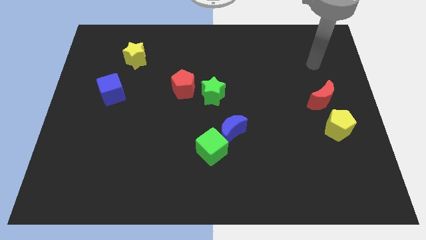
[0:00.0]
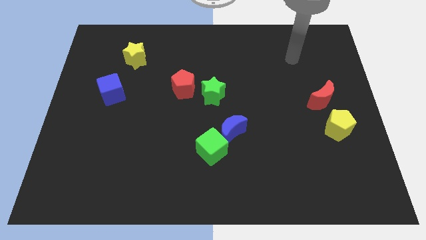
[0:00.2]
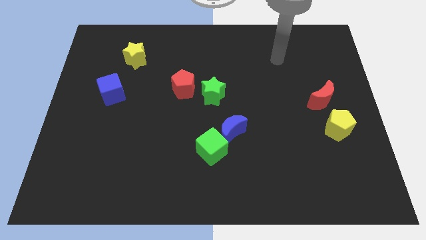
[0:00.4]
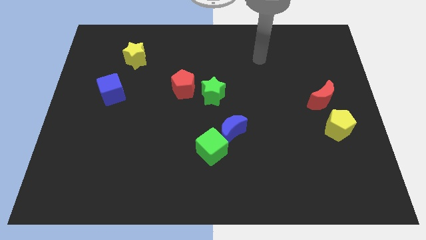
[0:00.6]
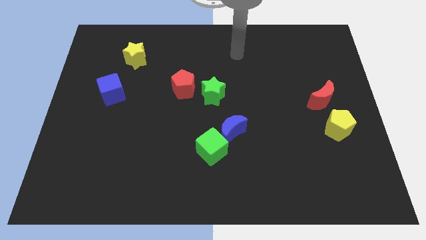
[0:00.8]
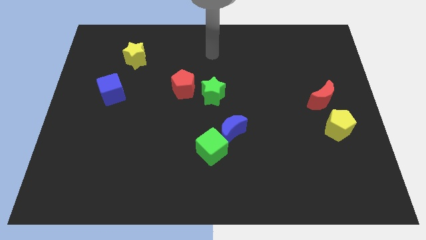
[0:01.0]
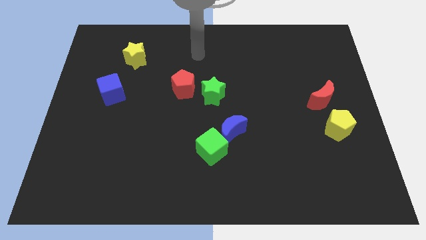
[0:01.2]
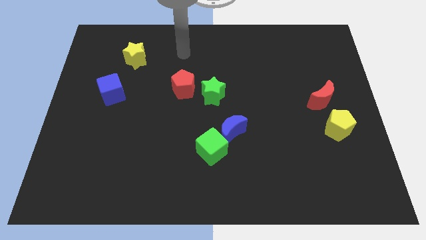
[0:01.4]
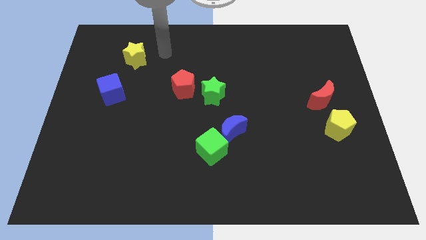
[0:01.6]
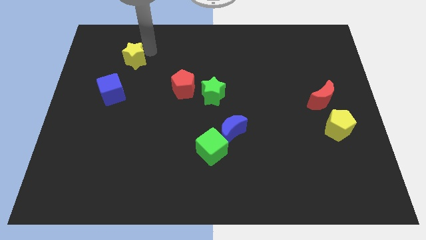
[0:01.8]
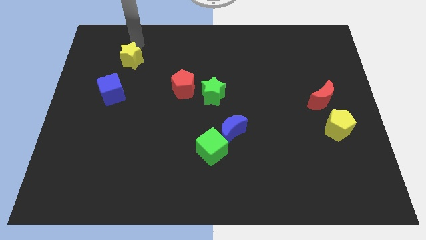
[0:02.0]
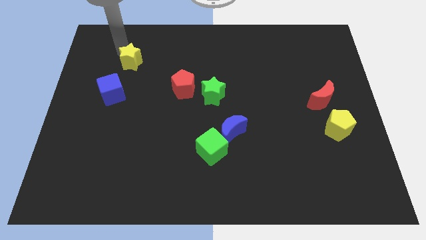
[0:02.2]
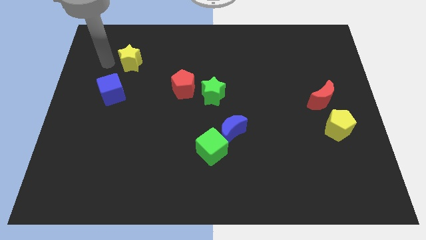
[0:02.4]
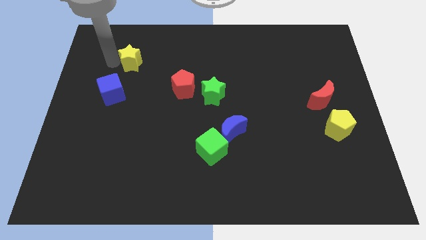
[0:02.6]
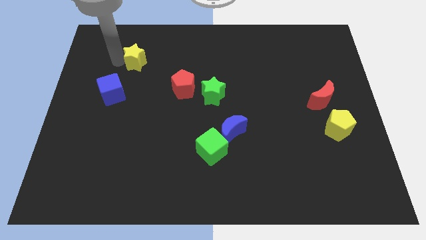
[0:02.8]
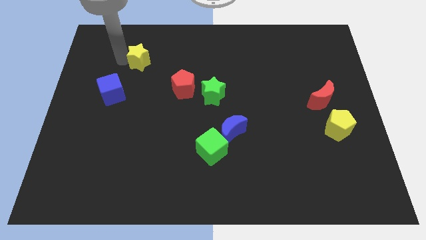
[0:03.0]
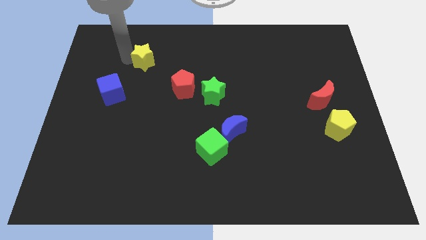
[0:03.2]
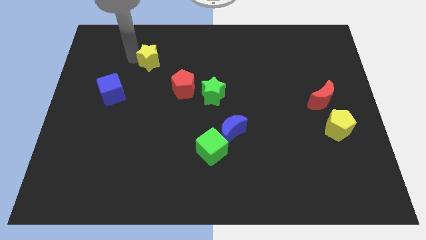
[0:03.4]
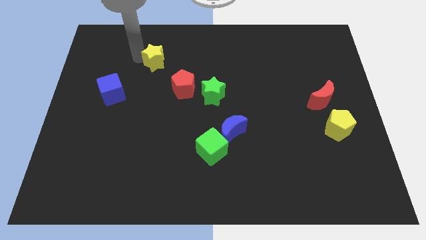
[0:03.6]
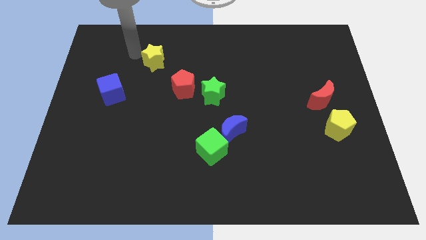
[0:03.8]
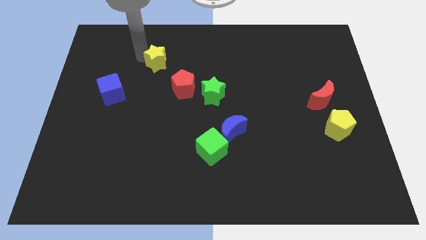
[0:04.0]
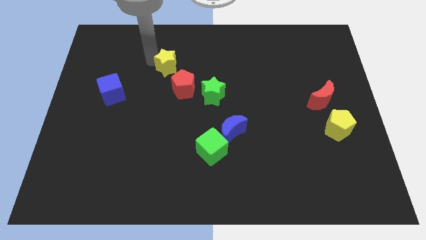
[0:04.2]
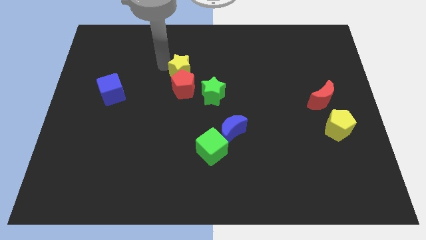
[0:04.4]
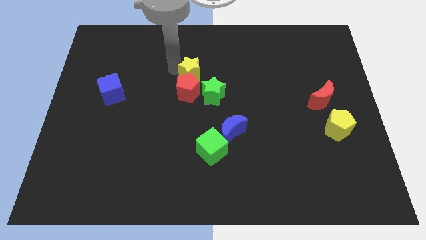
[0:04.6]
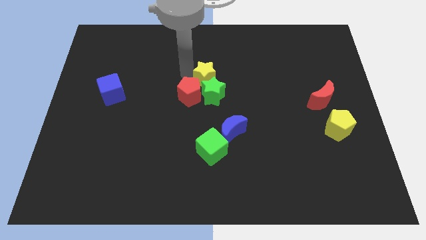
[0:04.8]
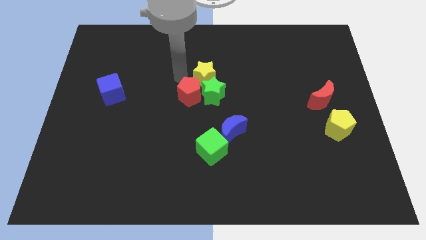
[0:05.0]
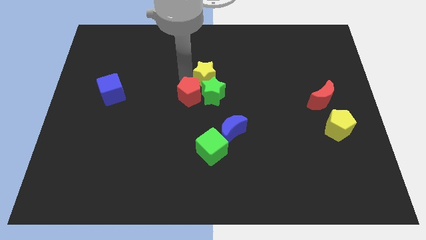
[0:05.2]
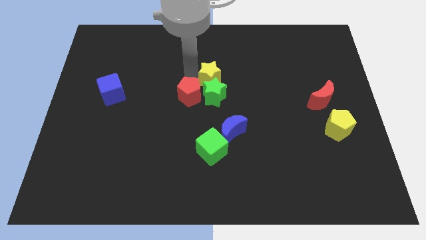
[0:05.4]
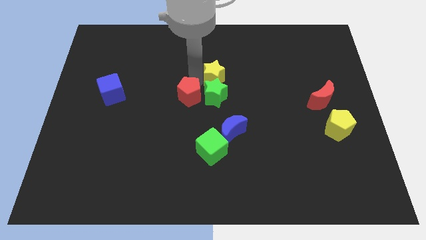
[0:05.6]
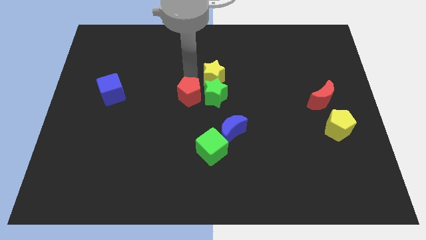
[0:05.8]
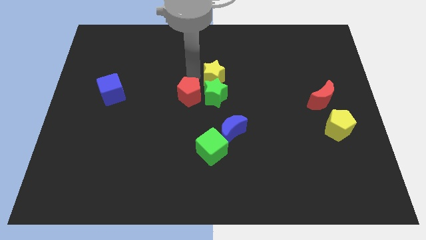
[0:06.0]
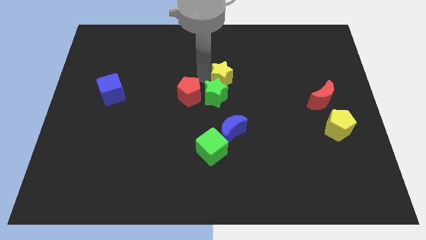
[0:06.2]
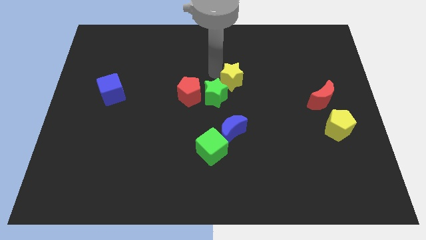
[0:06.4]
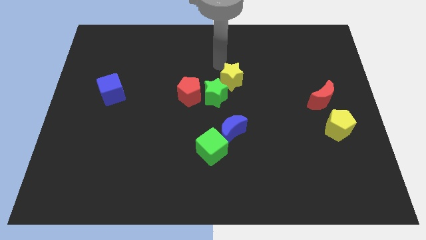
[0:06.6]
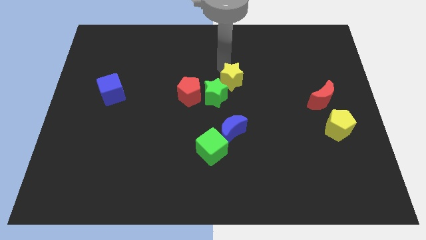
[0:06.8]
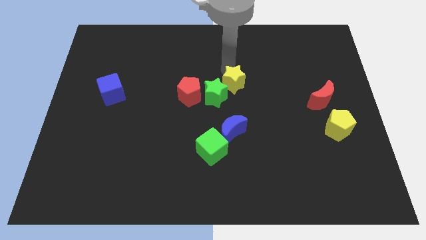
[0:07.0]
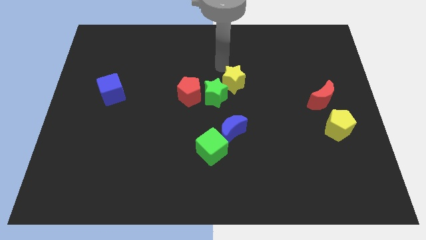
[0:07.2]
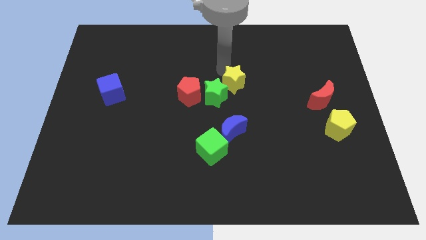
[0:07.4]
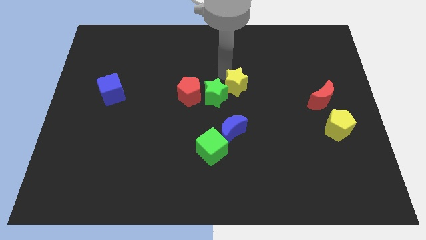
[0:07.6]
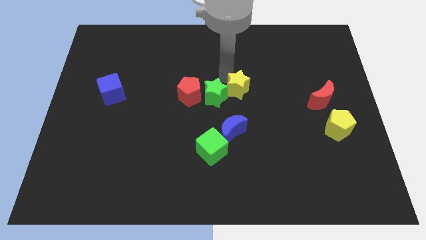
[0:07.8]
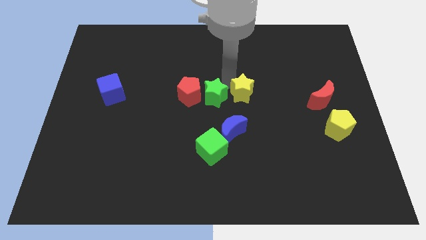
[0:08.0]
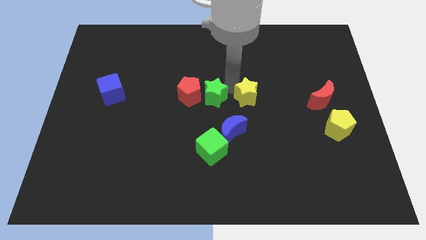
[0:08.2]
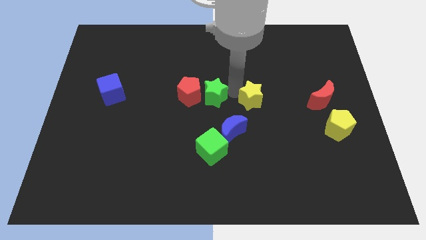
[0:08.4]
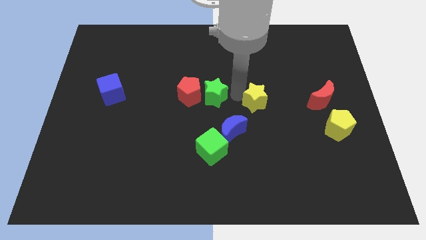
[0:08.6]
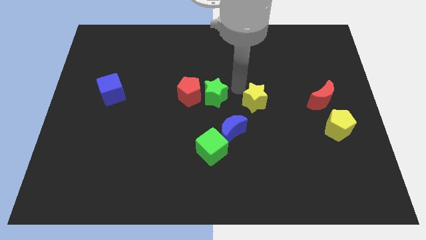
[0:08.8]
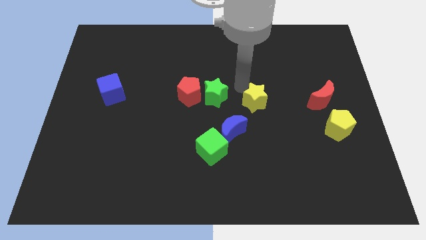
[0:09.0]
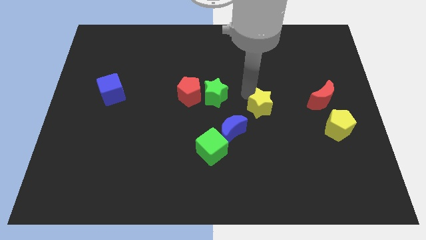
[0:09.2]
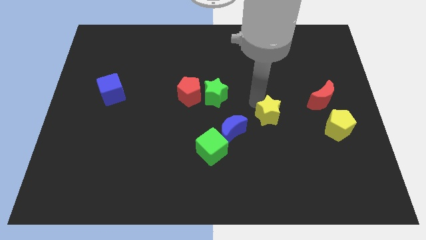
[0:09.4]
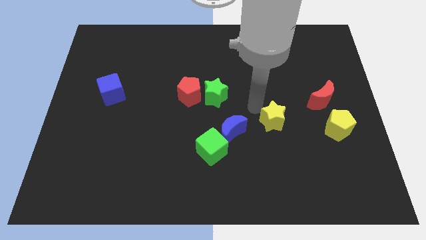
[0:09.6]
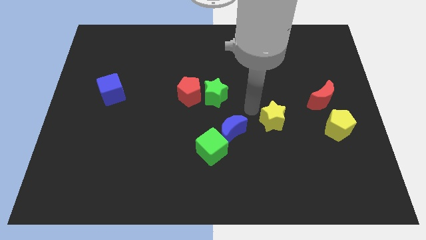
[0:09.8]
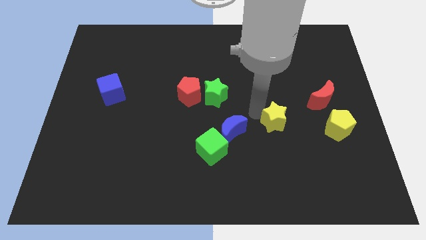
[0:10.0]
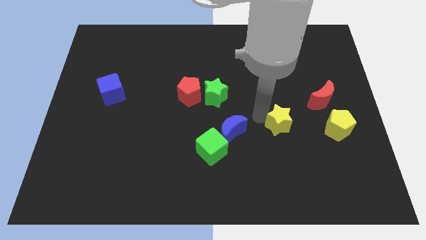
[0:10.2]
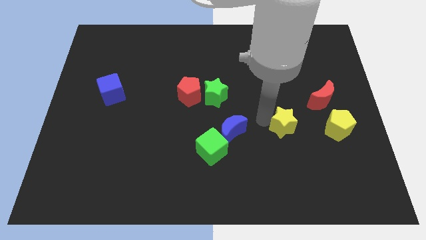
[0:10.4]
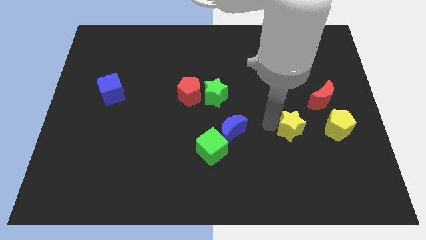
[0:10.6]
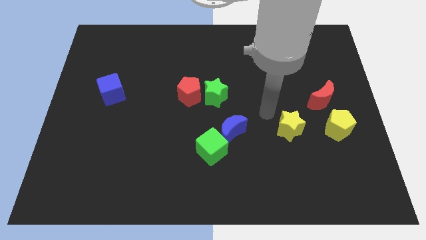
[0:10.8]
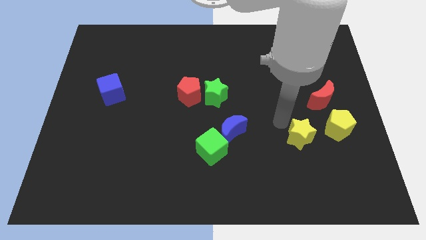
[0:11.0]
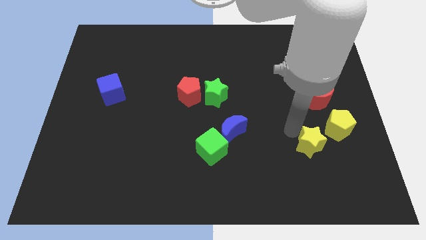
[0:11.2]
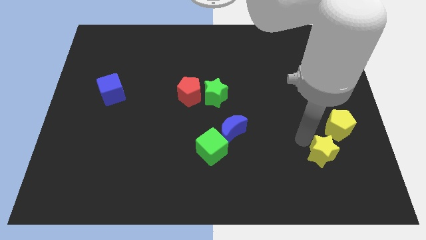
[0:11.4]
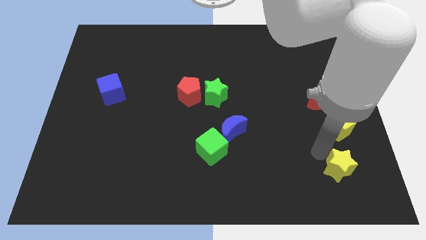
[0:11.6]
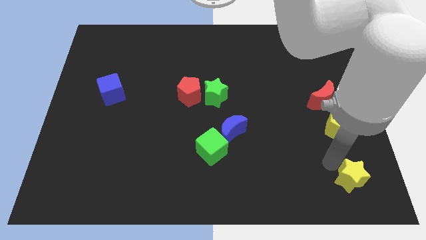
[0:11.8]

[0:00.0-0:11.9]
slide the yellow star to the bottom right of the board

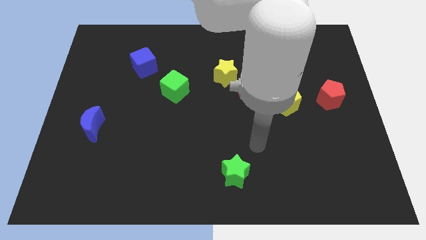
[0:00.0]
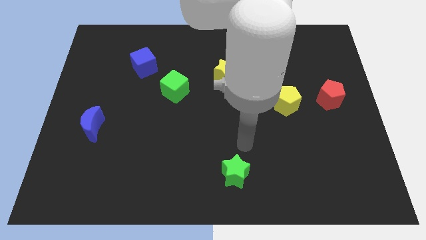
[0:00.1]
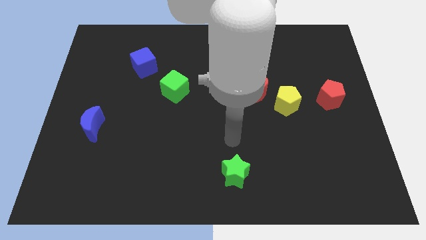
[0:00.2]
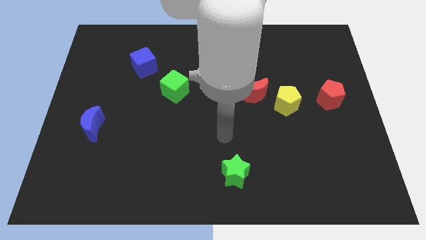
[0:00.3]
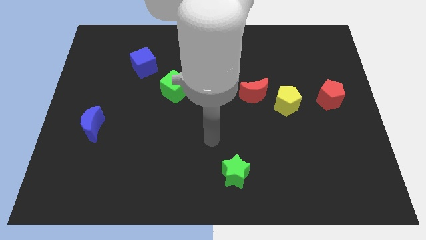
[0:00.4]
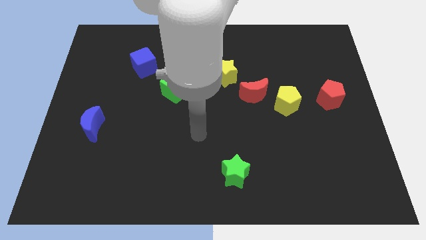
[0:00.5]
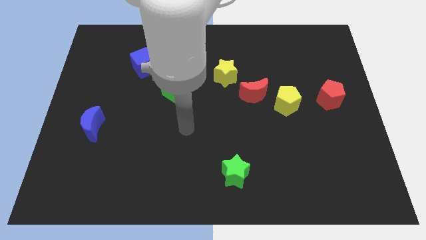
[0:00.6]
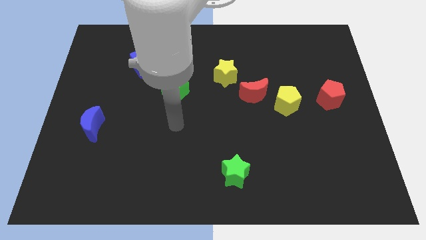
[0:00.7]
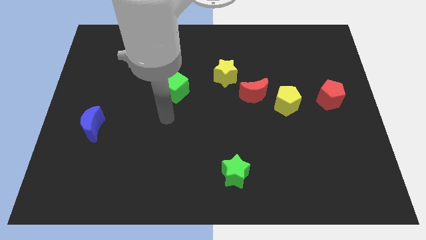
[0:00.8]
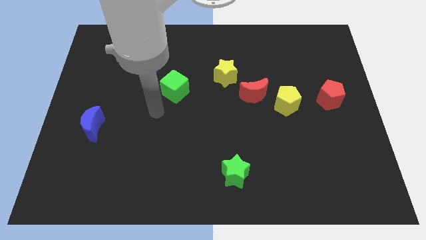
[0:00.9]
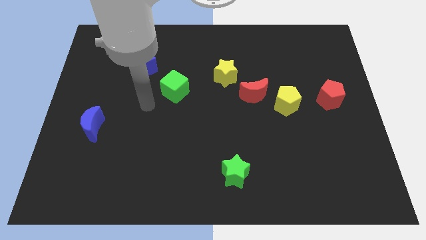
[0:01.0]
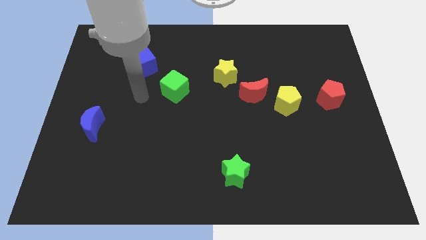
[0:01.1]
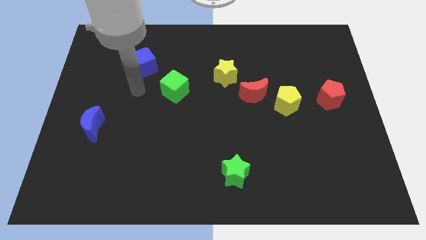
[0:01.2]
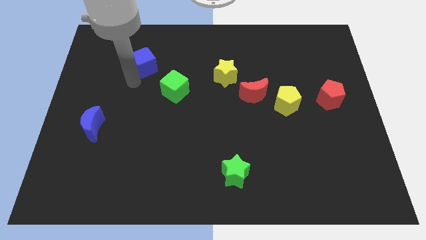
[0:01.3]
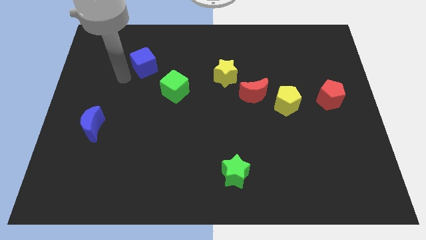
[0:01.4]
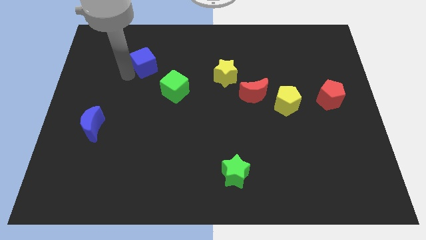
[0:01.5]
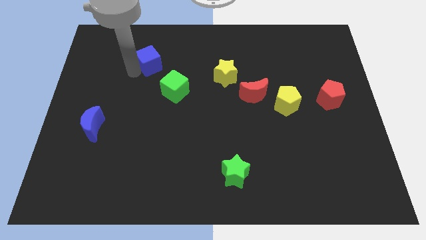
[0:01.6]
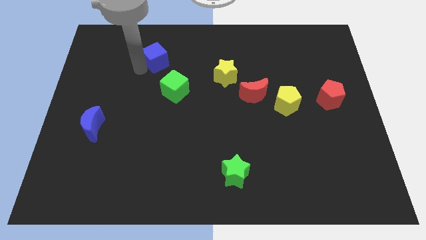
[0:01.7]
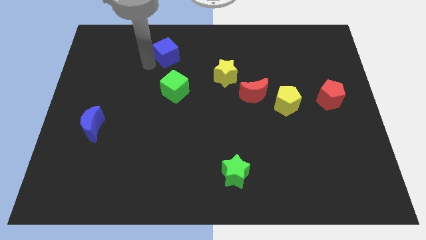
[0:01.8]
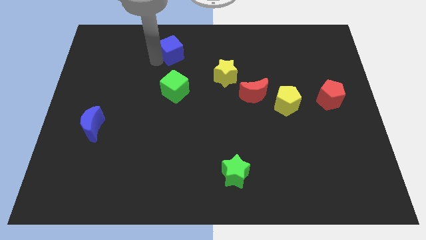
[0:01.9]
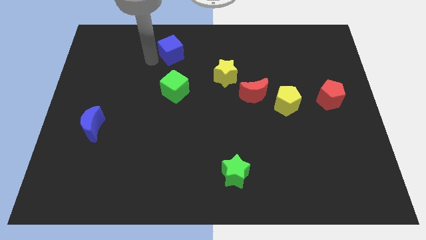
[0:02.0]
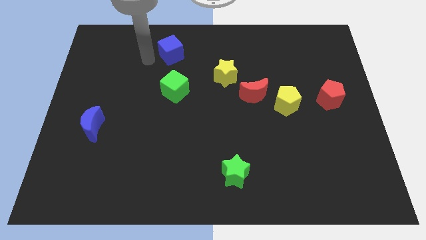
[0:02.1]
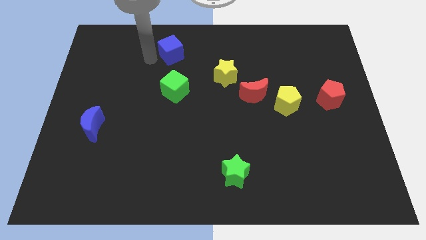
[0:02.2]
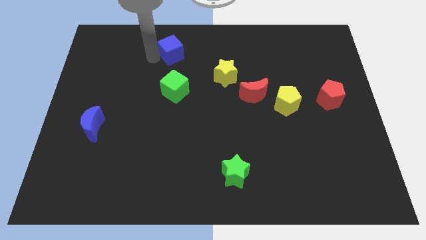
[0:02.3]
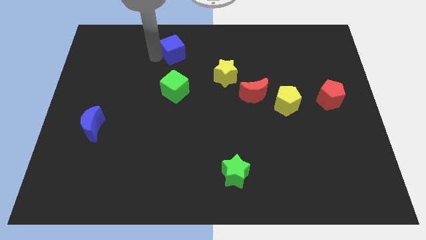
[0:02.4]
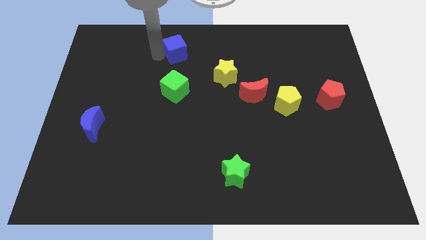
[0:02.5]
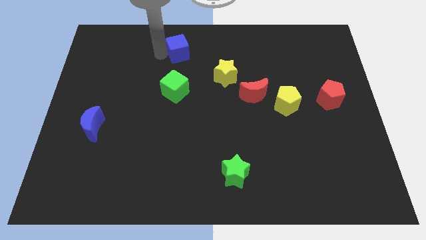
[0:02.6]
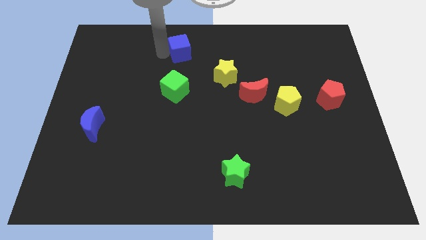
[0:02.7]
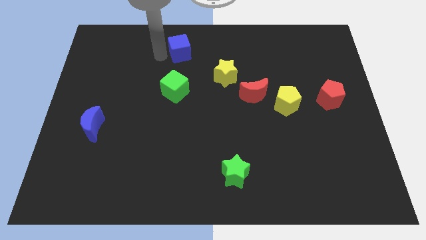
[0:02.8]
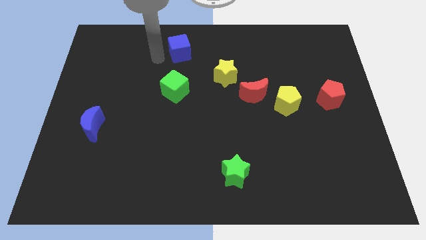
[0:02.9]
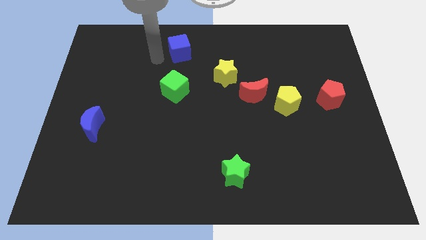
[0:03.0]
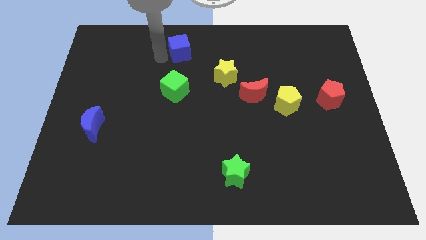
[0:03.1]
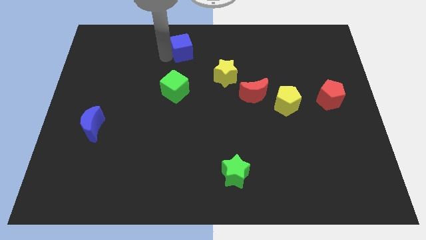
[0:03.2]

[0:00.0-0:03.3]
slide the blue cube to the top
